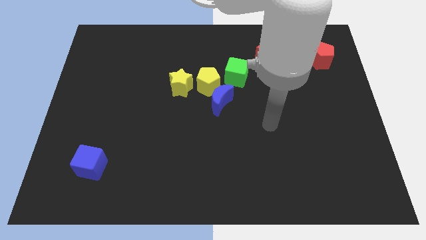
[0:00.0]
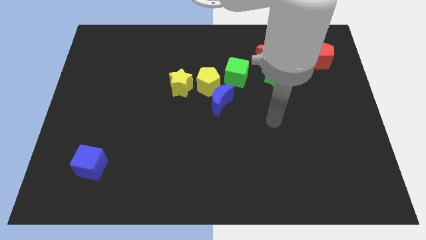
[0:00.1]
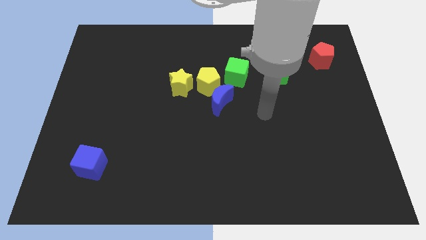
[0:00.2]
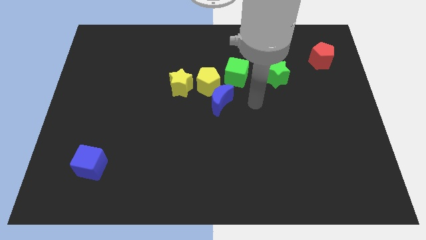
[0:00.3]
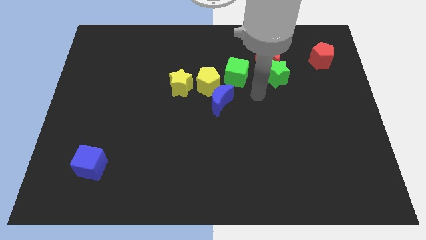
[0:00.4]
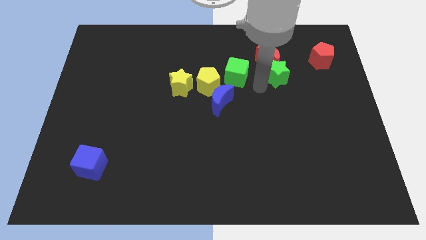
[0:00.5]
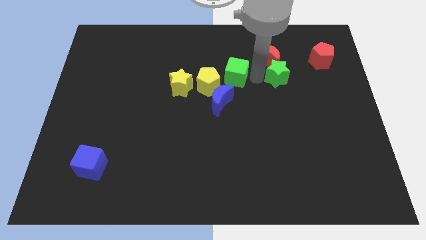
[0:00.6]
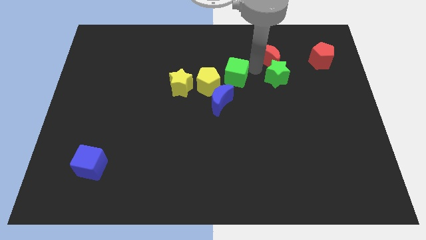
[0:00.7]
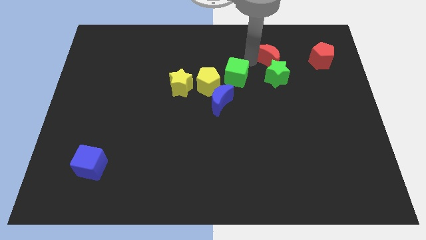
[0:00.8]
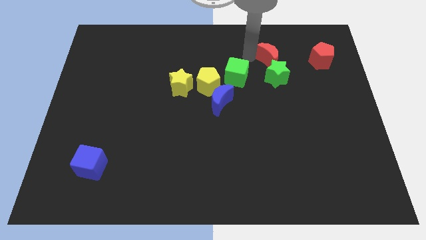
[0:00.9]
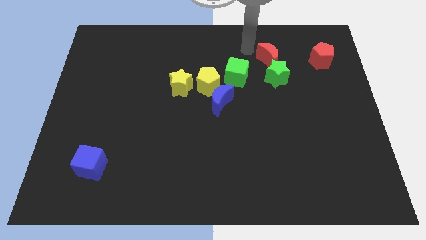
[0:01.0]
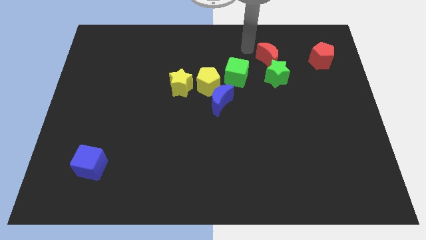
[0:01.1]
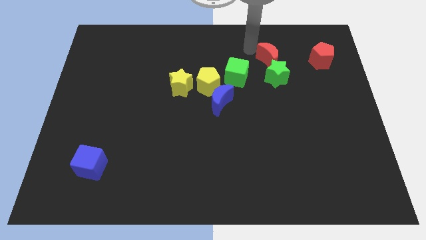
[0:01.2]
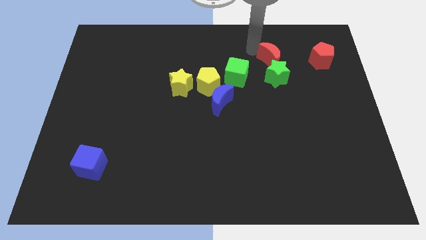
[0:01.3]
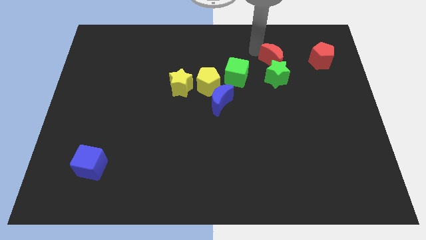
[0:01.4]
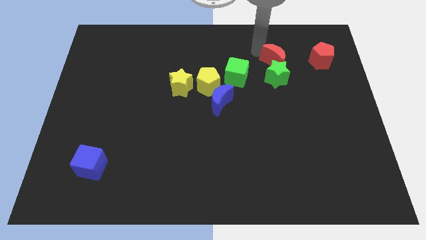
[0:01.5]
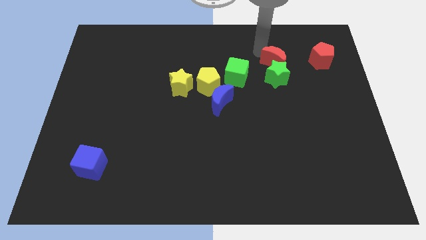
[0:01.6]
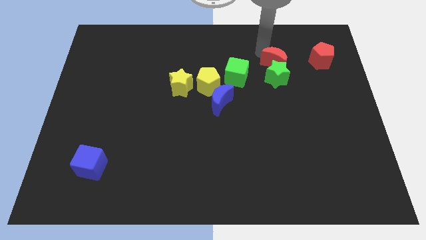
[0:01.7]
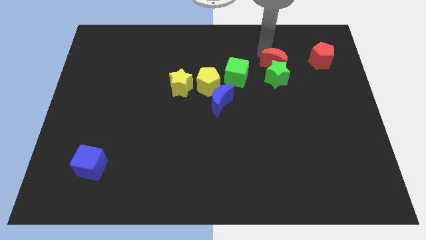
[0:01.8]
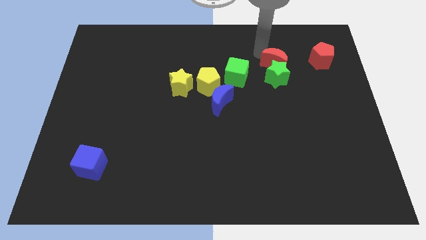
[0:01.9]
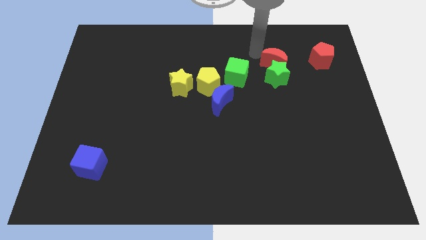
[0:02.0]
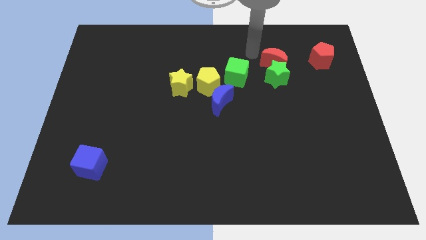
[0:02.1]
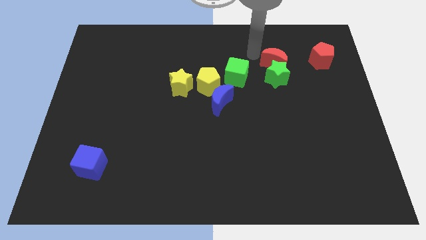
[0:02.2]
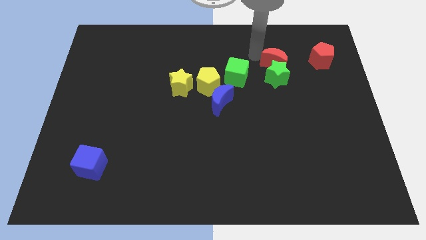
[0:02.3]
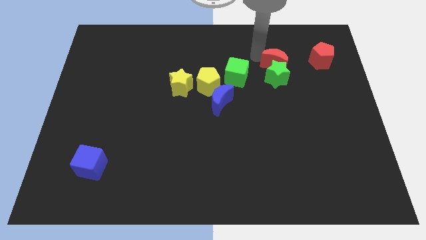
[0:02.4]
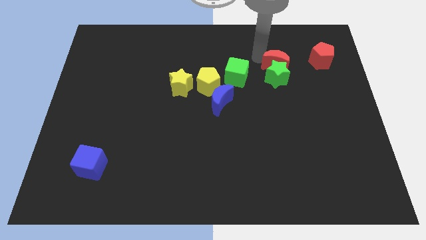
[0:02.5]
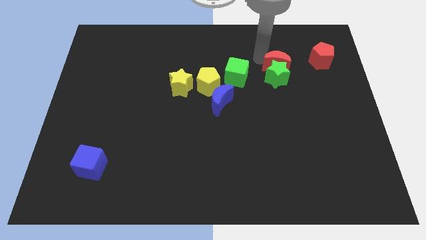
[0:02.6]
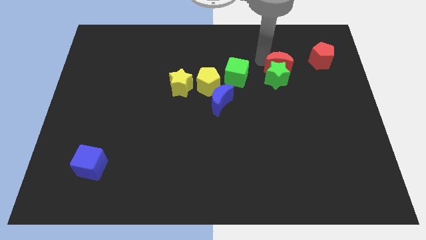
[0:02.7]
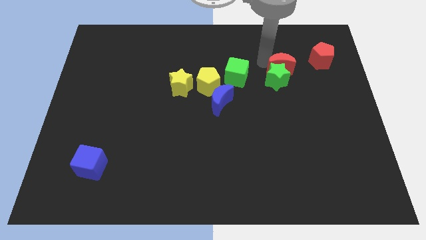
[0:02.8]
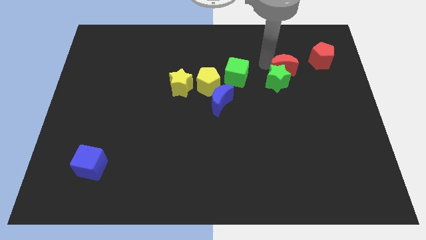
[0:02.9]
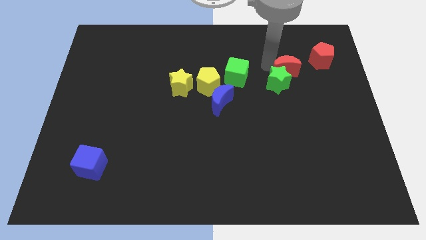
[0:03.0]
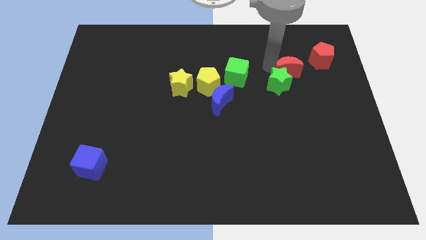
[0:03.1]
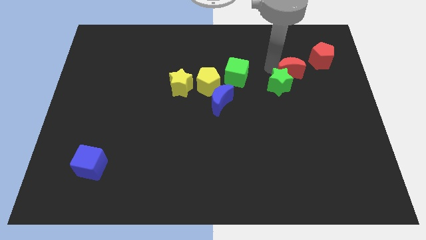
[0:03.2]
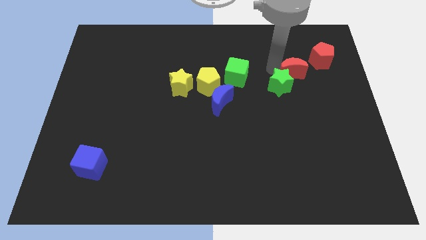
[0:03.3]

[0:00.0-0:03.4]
slightly push the red moon downwards and right diagonally

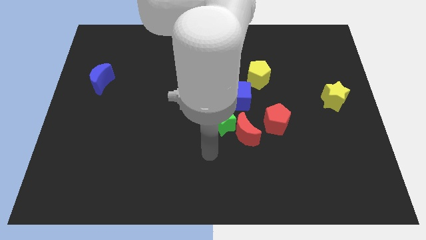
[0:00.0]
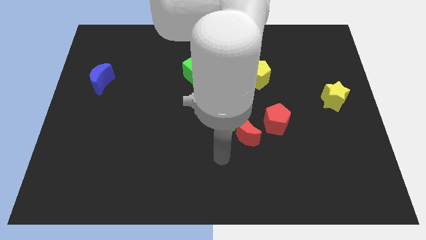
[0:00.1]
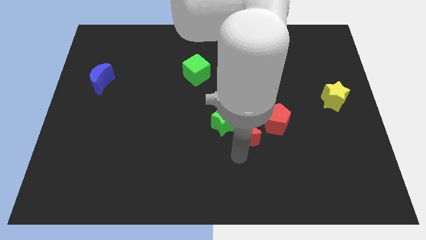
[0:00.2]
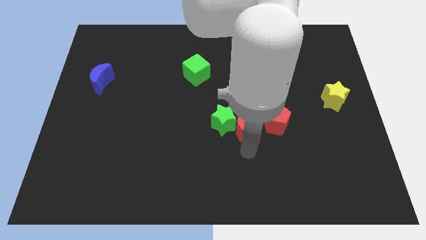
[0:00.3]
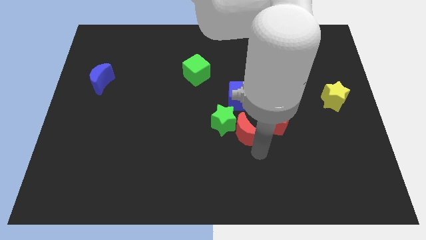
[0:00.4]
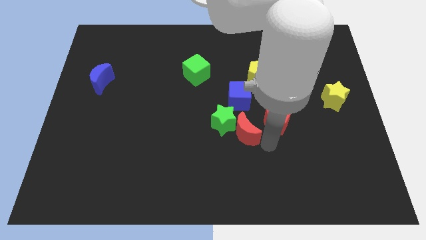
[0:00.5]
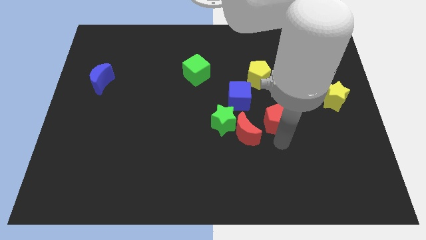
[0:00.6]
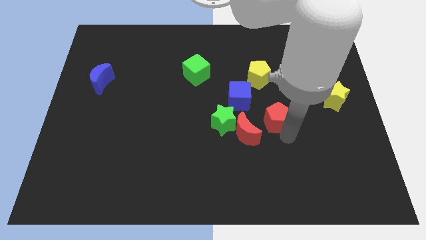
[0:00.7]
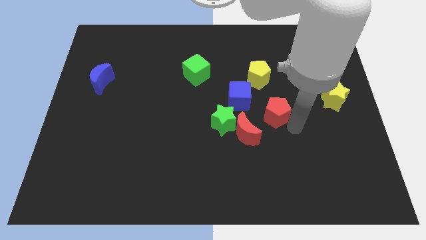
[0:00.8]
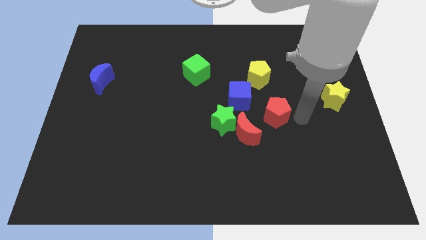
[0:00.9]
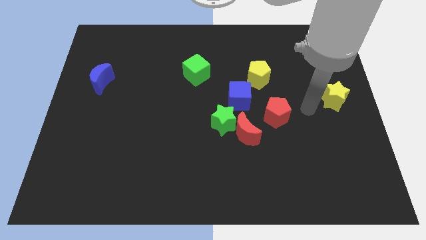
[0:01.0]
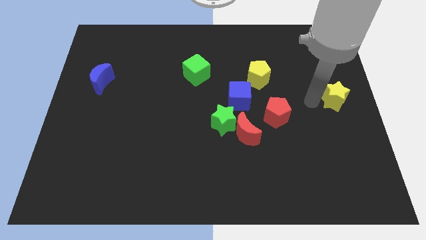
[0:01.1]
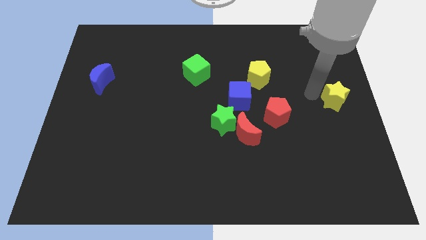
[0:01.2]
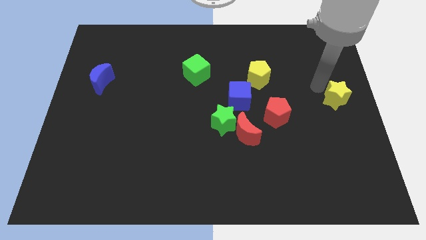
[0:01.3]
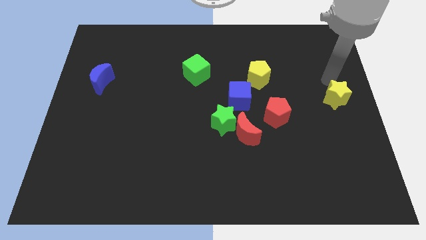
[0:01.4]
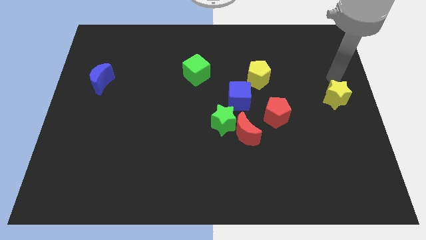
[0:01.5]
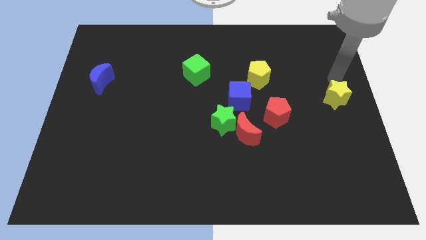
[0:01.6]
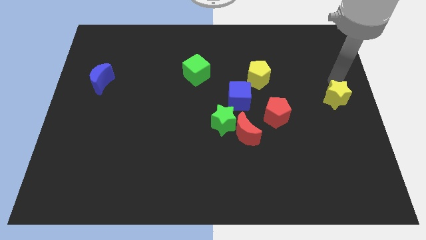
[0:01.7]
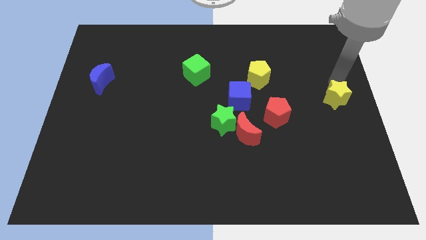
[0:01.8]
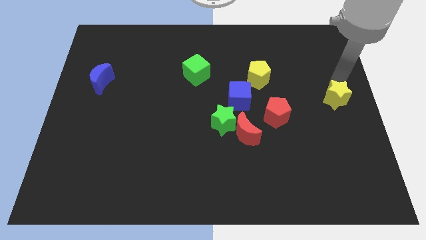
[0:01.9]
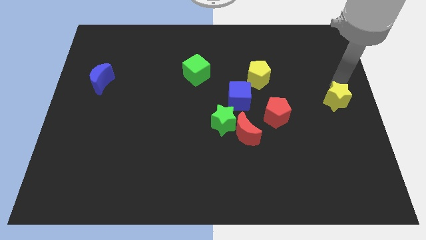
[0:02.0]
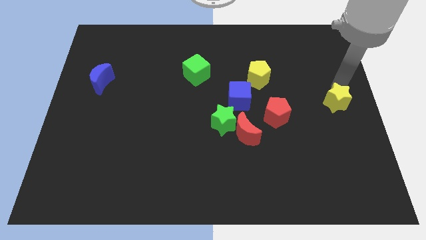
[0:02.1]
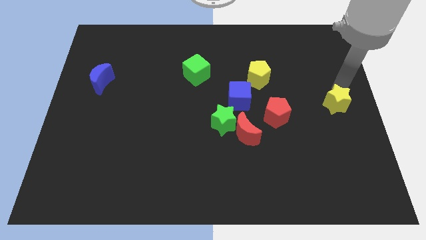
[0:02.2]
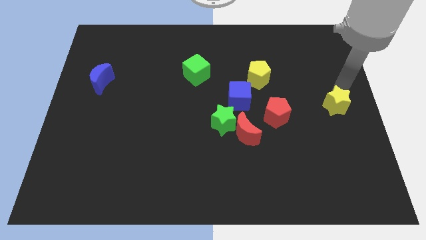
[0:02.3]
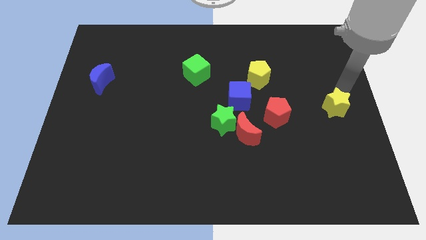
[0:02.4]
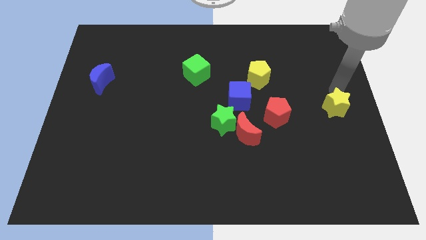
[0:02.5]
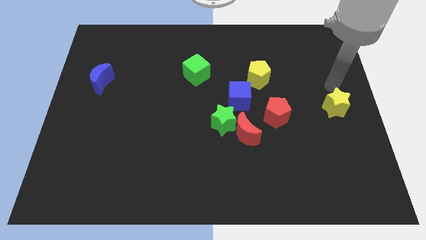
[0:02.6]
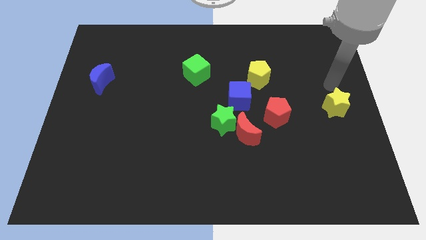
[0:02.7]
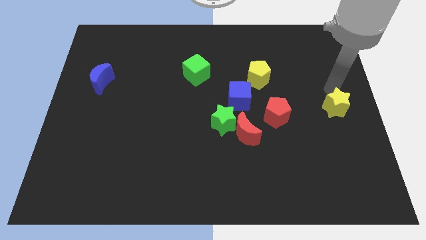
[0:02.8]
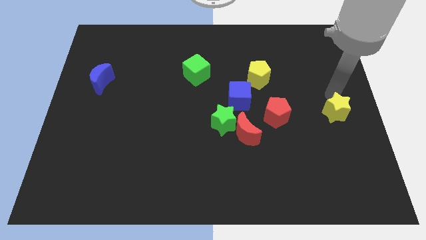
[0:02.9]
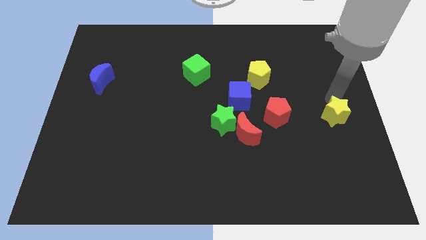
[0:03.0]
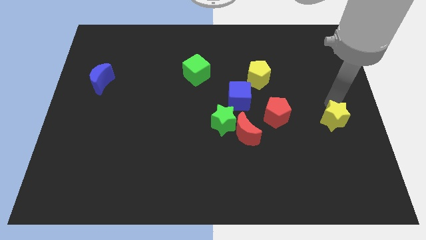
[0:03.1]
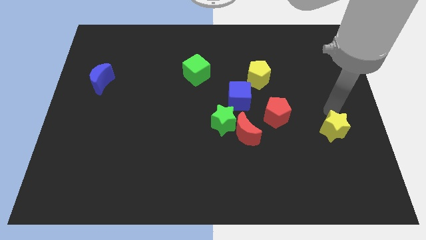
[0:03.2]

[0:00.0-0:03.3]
slide the yellow star a little down

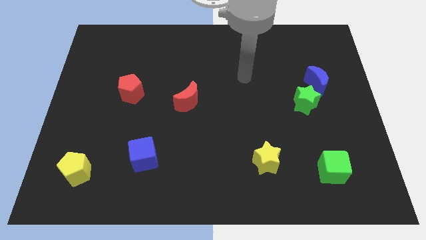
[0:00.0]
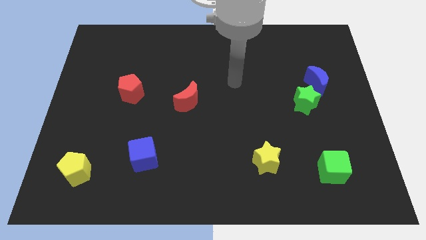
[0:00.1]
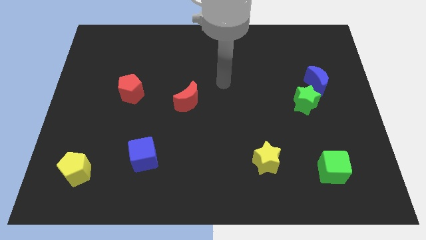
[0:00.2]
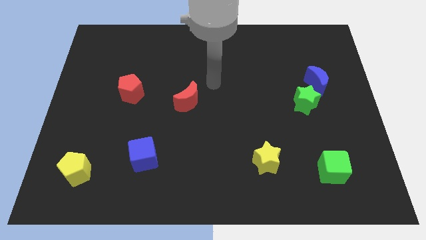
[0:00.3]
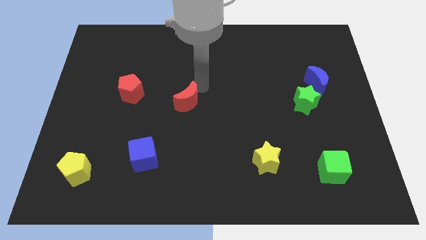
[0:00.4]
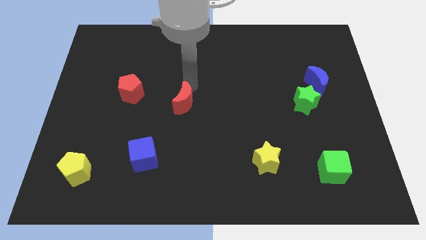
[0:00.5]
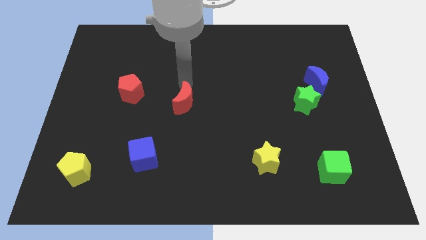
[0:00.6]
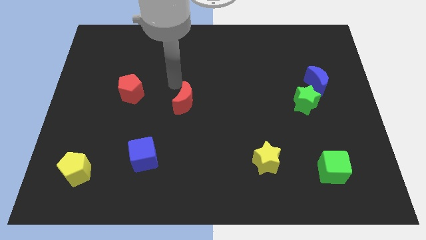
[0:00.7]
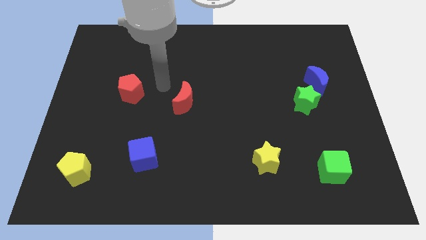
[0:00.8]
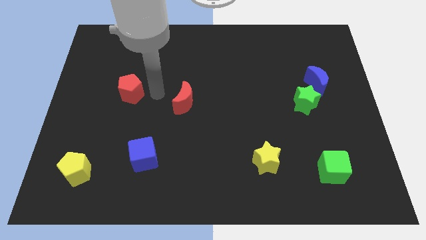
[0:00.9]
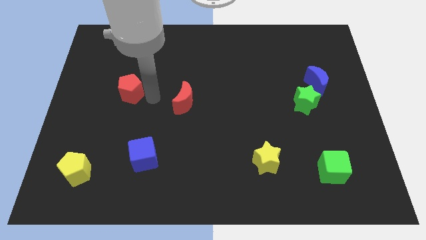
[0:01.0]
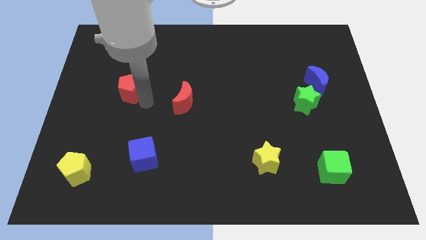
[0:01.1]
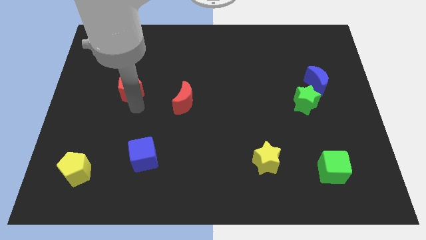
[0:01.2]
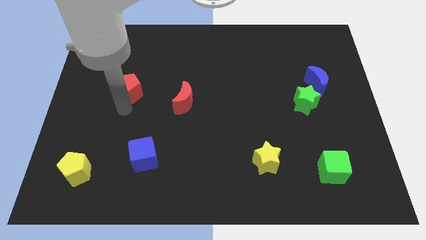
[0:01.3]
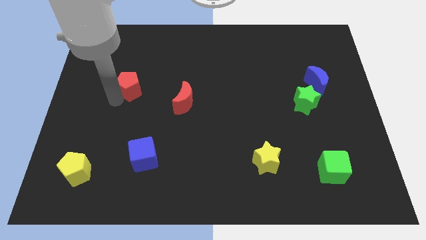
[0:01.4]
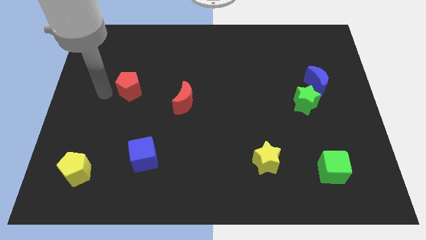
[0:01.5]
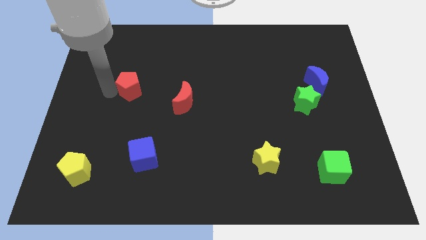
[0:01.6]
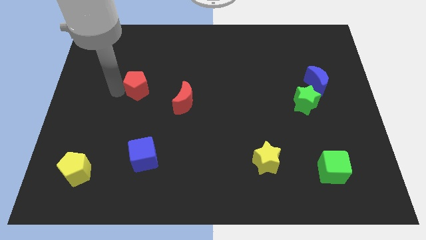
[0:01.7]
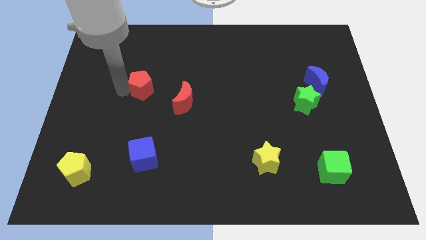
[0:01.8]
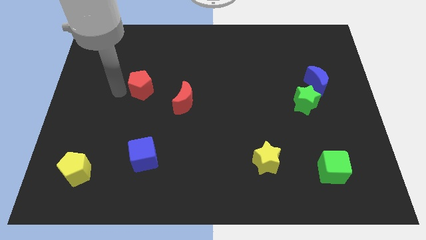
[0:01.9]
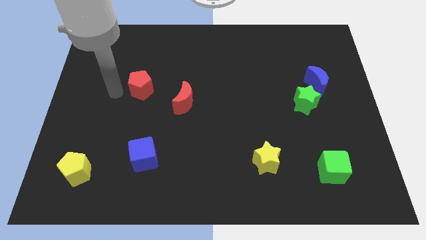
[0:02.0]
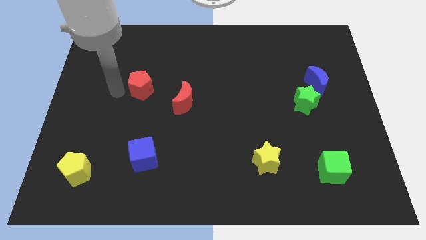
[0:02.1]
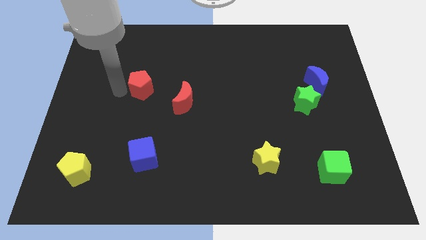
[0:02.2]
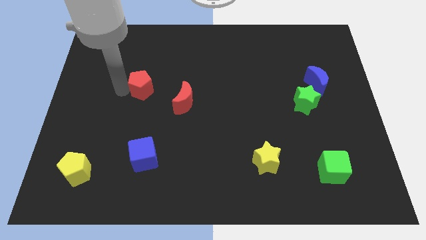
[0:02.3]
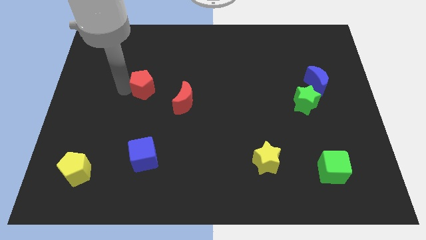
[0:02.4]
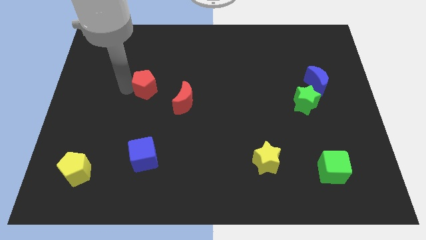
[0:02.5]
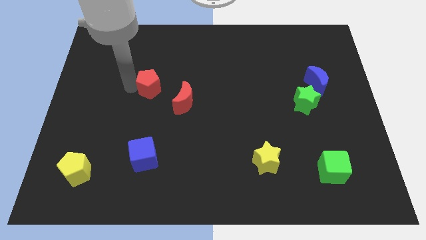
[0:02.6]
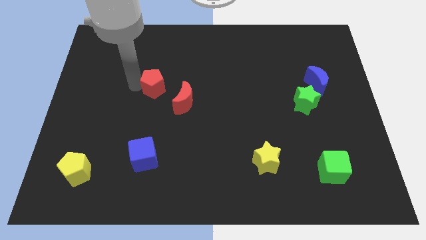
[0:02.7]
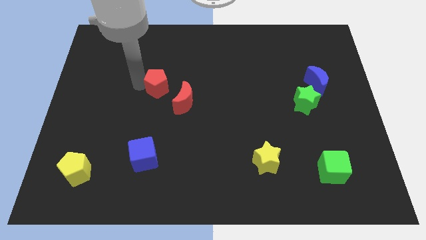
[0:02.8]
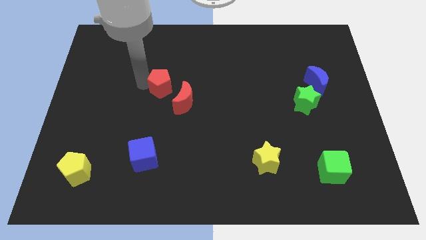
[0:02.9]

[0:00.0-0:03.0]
slide the red pentagon slightly to the right
